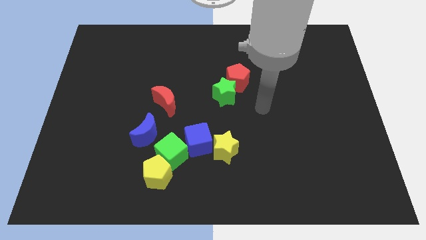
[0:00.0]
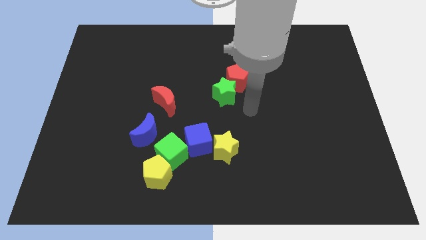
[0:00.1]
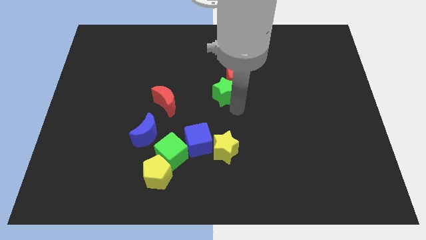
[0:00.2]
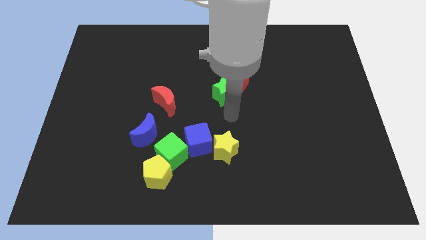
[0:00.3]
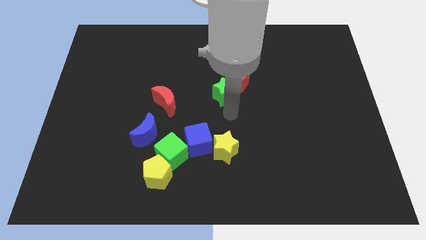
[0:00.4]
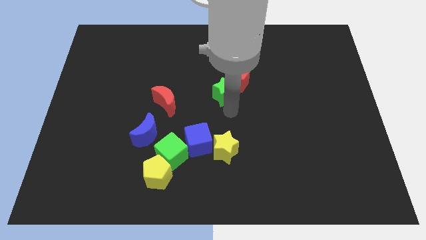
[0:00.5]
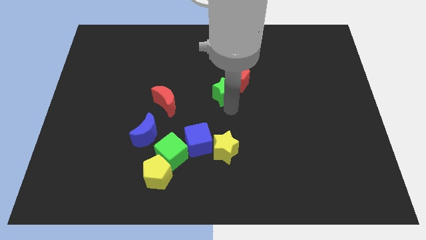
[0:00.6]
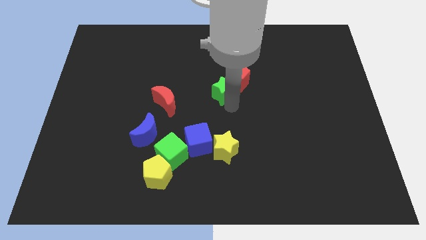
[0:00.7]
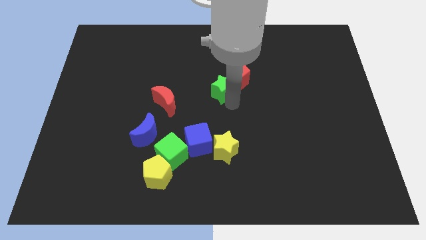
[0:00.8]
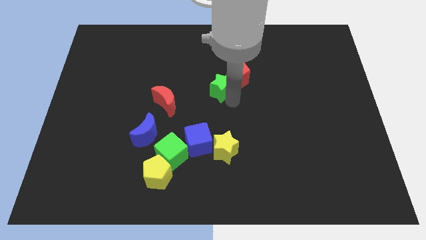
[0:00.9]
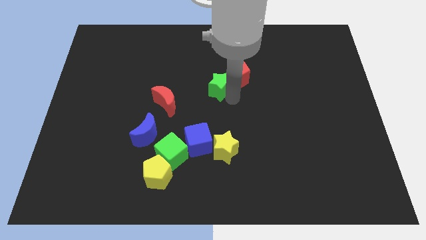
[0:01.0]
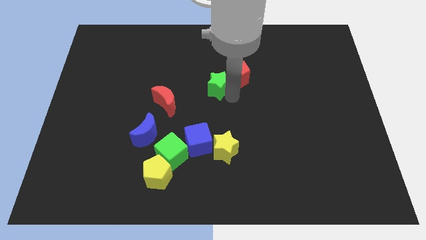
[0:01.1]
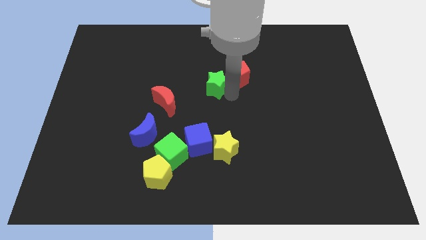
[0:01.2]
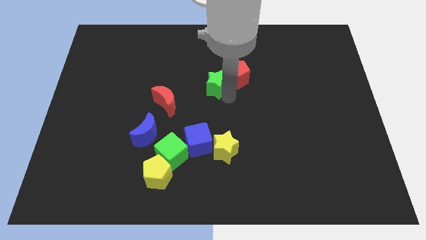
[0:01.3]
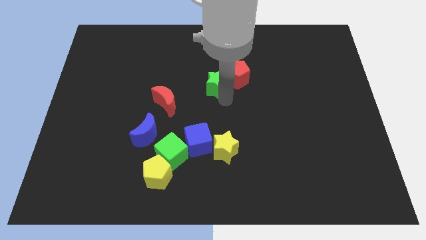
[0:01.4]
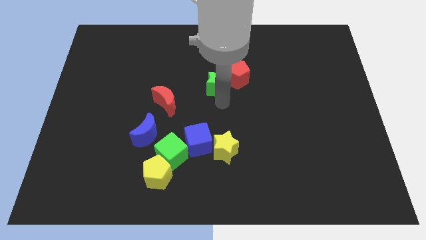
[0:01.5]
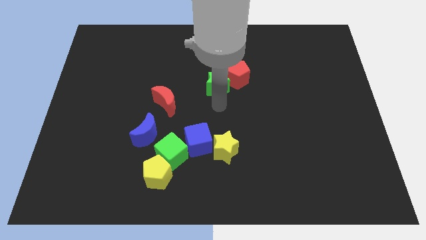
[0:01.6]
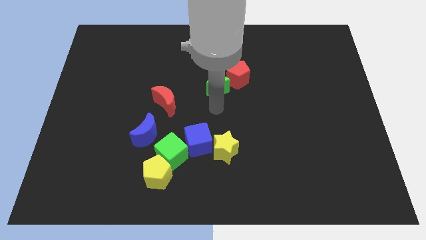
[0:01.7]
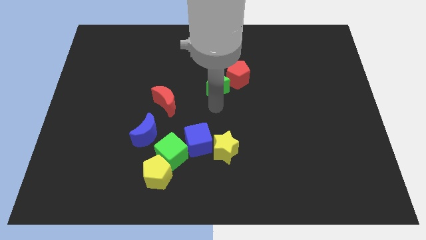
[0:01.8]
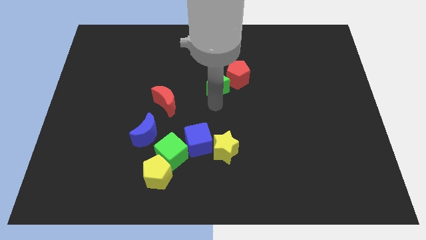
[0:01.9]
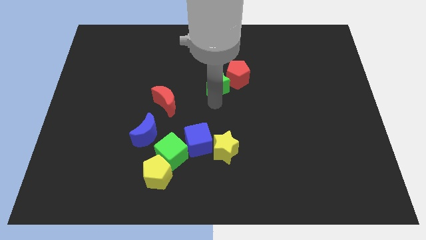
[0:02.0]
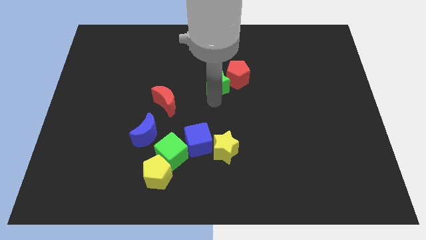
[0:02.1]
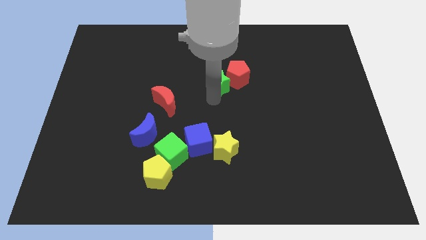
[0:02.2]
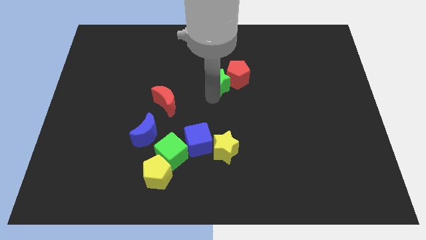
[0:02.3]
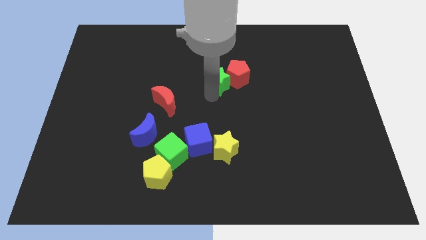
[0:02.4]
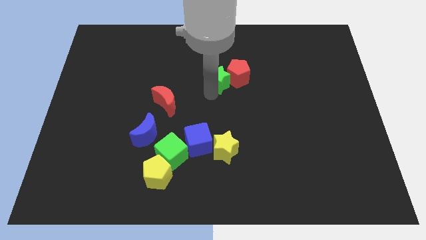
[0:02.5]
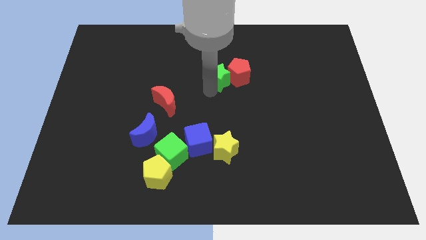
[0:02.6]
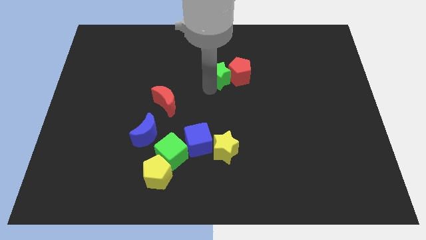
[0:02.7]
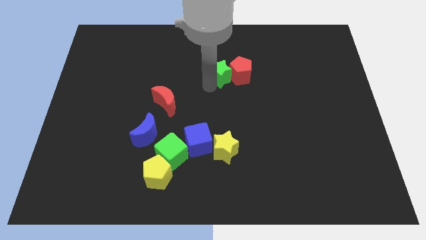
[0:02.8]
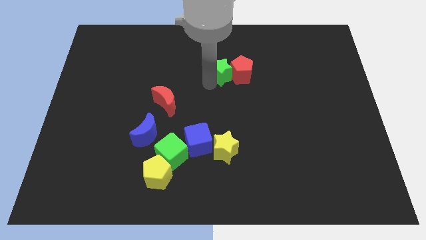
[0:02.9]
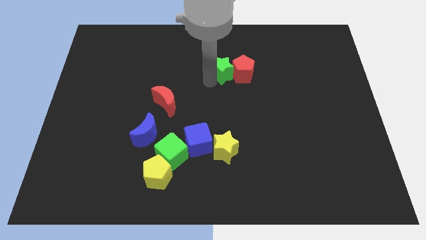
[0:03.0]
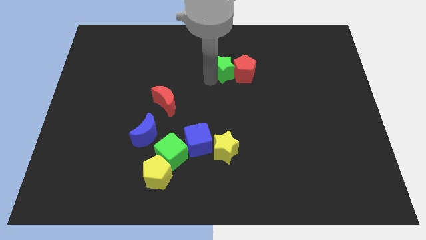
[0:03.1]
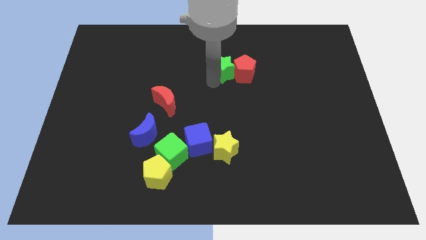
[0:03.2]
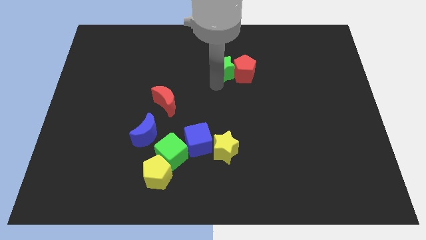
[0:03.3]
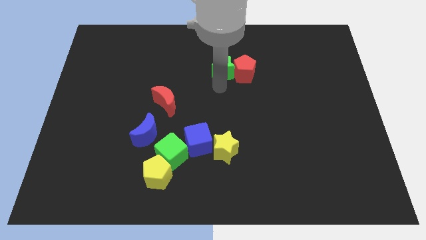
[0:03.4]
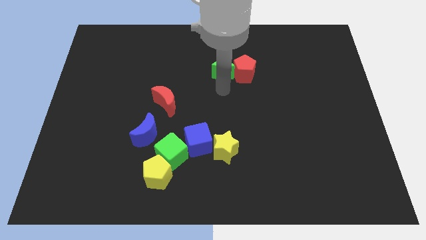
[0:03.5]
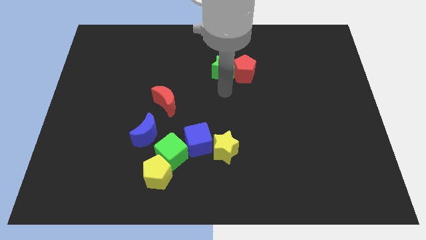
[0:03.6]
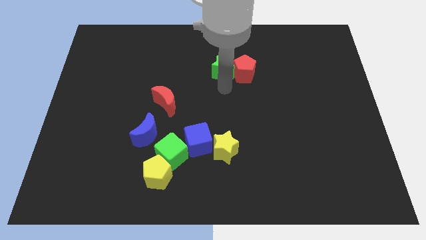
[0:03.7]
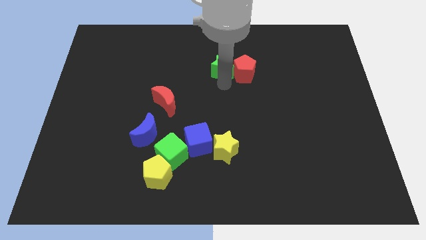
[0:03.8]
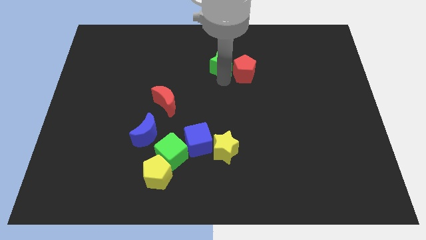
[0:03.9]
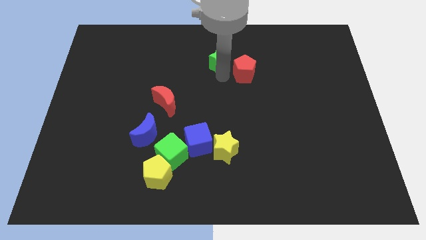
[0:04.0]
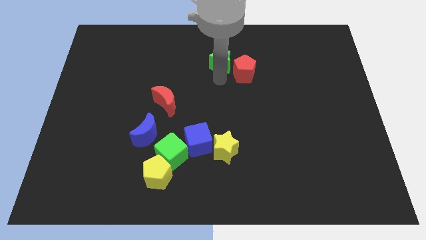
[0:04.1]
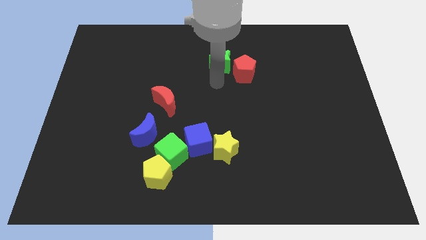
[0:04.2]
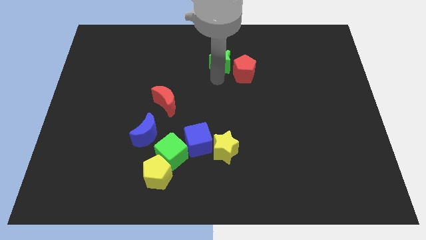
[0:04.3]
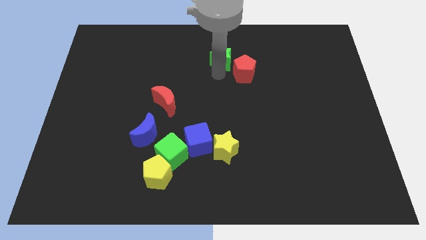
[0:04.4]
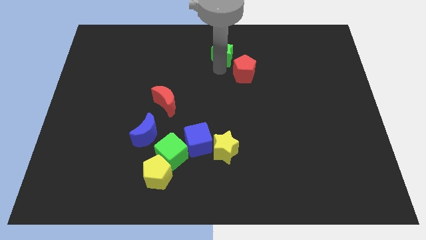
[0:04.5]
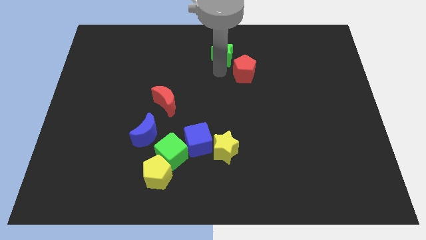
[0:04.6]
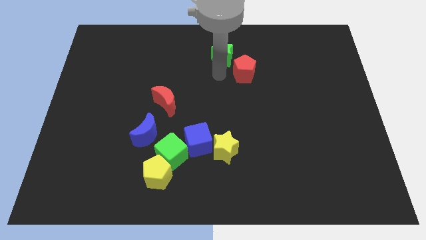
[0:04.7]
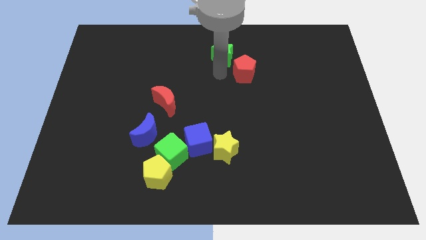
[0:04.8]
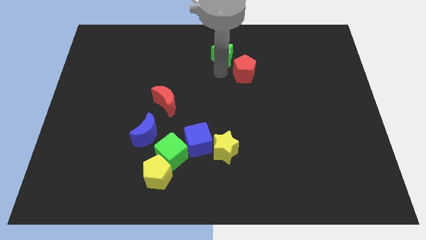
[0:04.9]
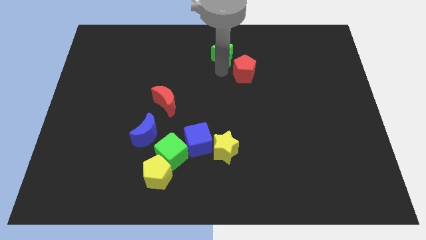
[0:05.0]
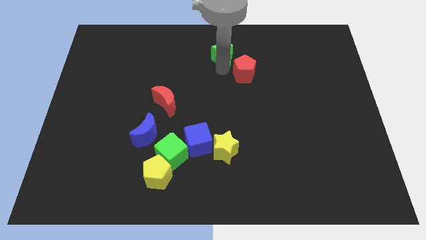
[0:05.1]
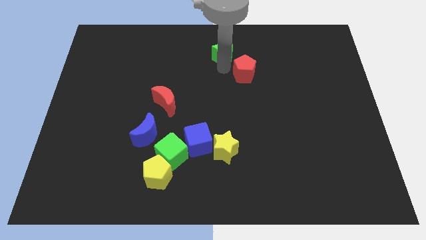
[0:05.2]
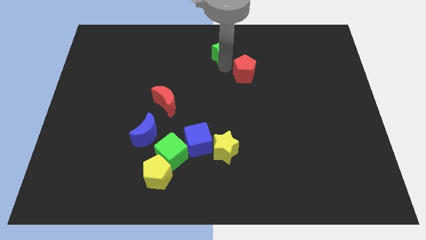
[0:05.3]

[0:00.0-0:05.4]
put the green star to the towards your base
